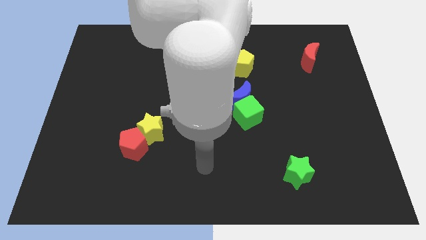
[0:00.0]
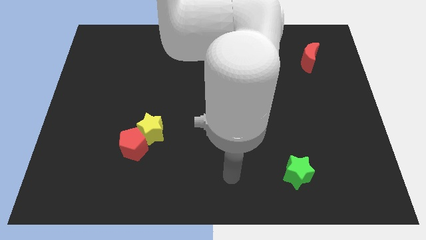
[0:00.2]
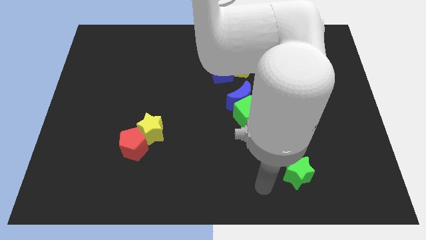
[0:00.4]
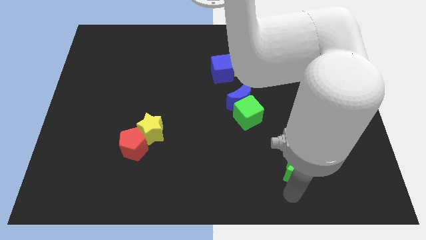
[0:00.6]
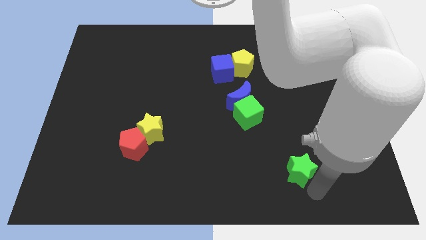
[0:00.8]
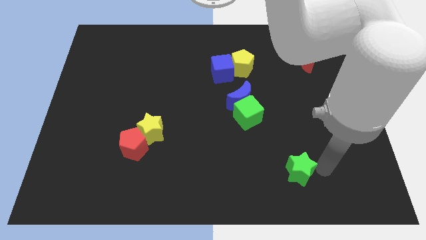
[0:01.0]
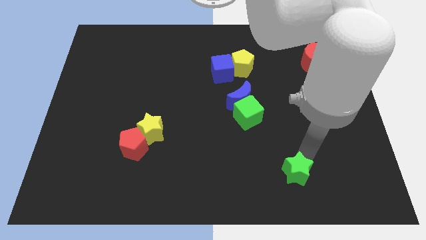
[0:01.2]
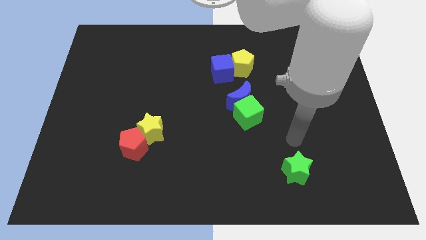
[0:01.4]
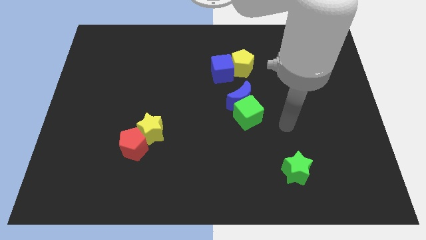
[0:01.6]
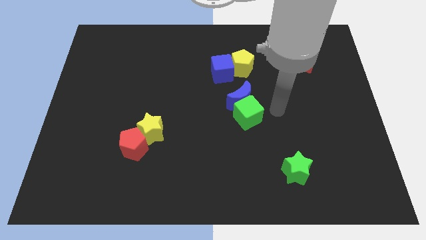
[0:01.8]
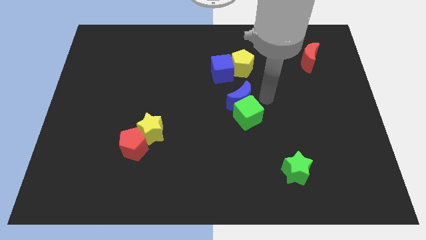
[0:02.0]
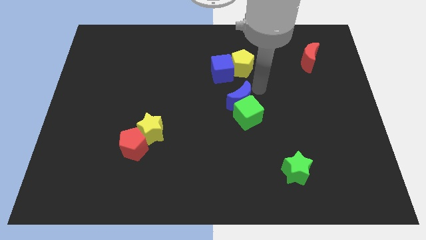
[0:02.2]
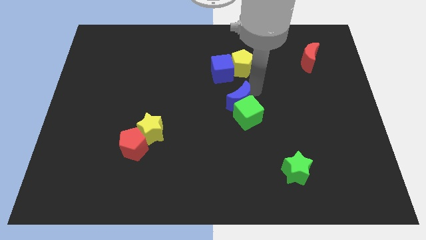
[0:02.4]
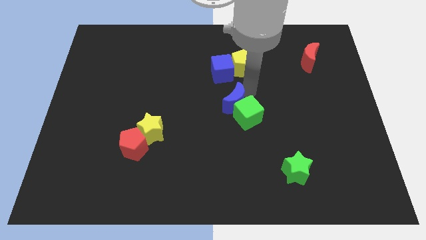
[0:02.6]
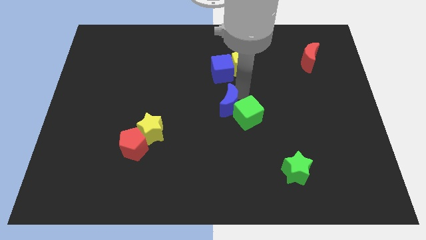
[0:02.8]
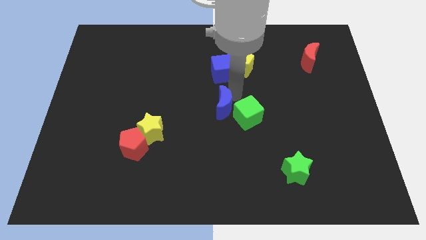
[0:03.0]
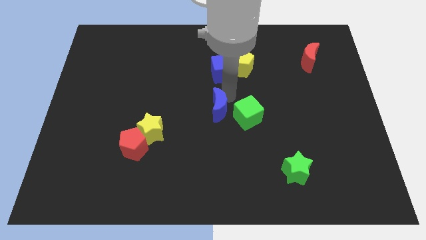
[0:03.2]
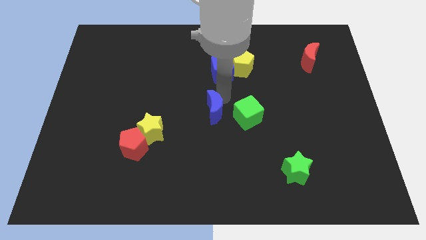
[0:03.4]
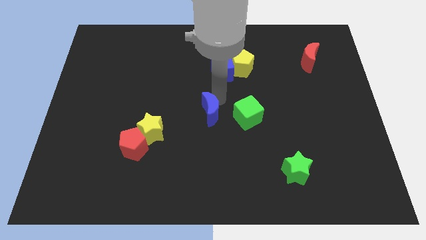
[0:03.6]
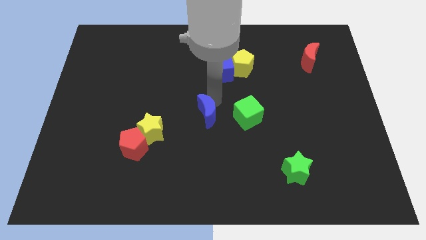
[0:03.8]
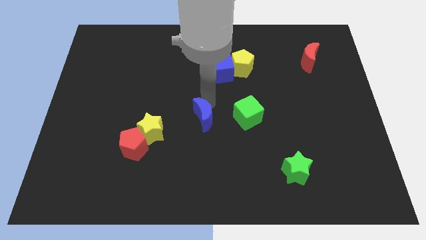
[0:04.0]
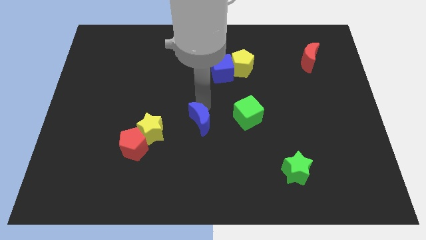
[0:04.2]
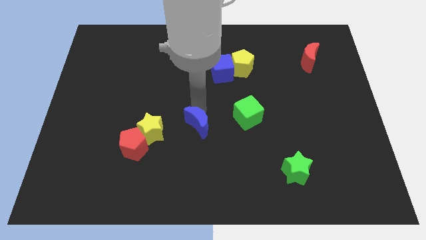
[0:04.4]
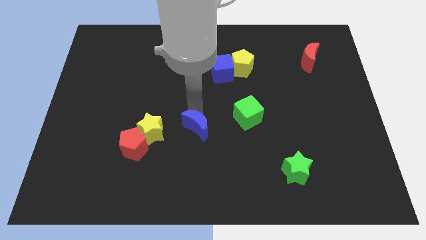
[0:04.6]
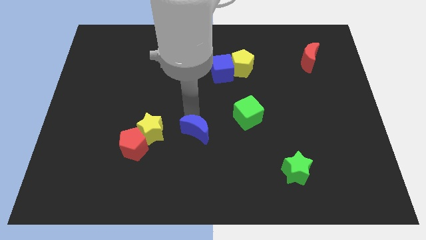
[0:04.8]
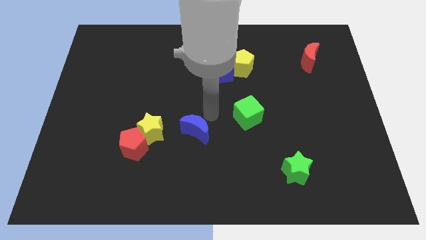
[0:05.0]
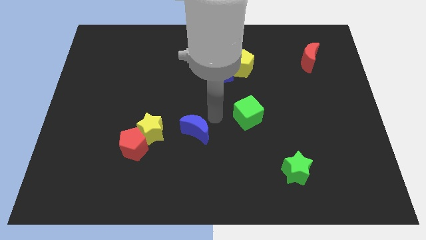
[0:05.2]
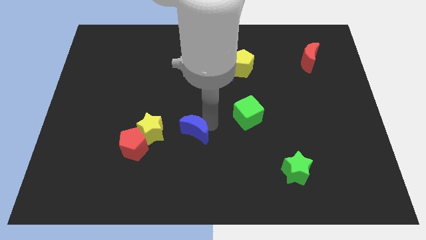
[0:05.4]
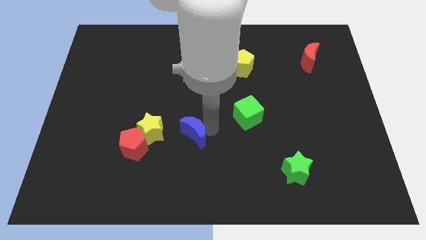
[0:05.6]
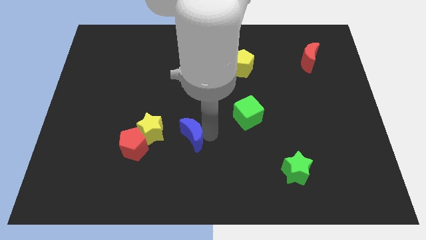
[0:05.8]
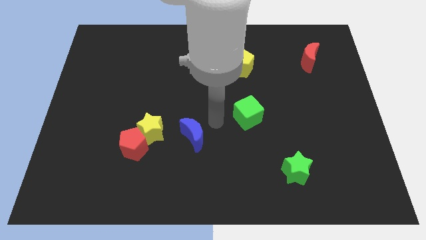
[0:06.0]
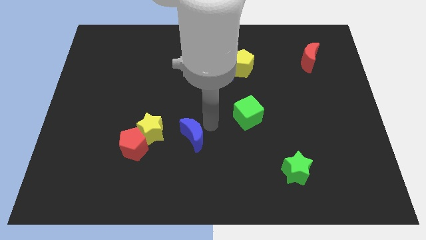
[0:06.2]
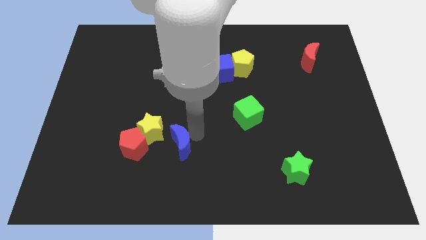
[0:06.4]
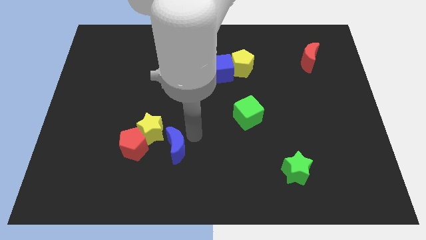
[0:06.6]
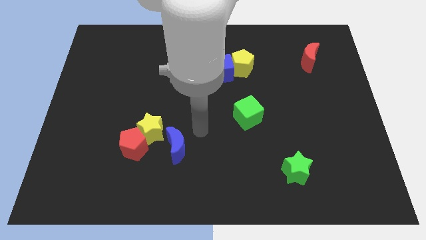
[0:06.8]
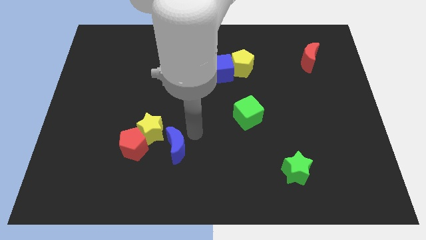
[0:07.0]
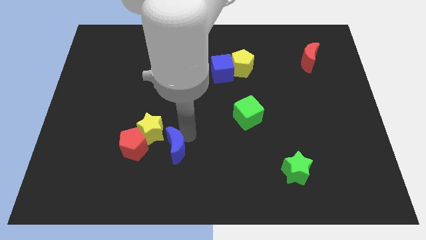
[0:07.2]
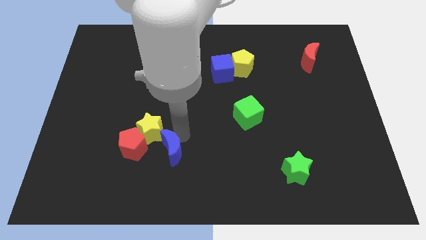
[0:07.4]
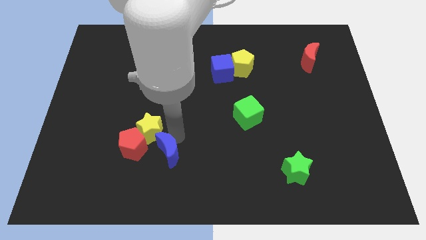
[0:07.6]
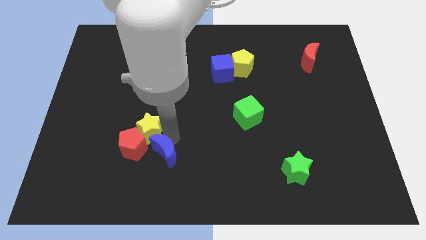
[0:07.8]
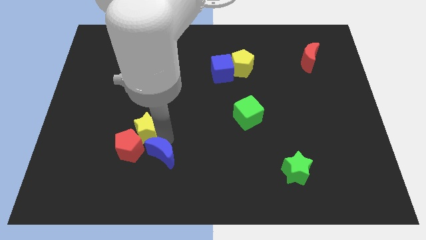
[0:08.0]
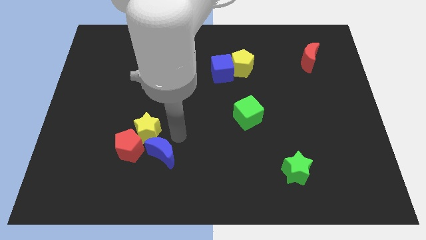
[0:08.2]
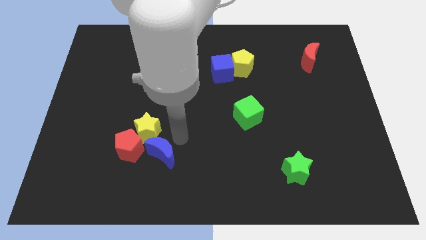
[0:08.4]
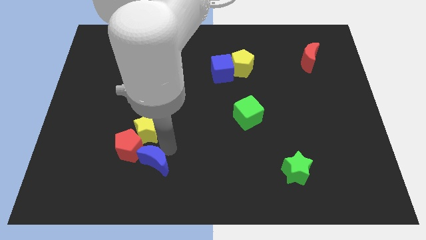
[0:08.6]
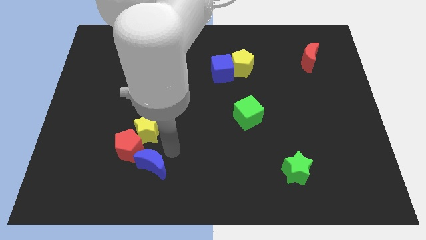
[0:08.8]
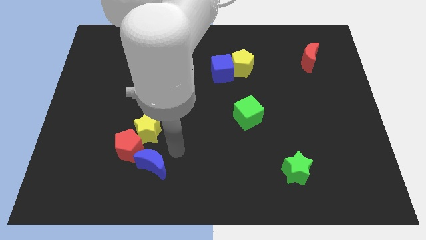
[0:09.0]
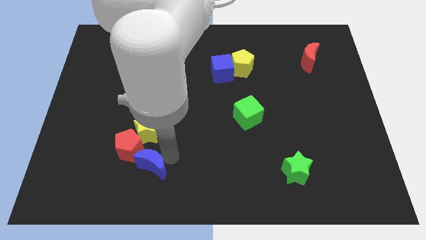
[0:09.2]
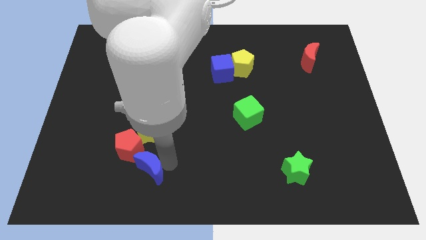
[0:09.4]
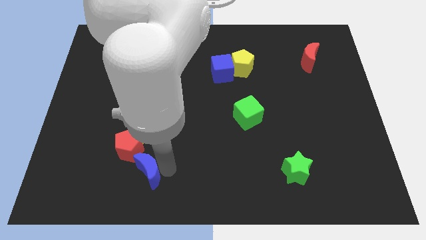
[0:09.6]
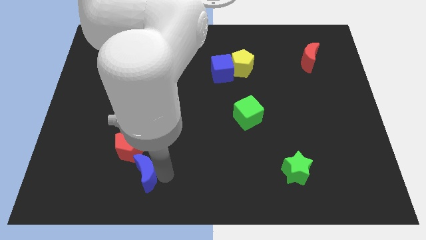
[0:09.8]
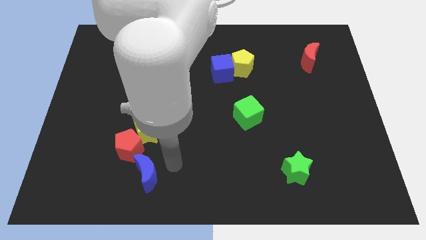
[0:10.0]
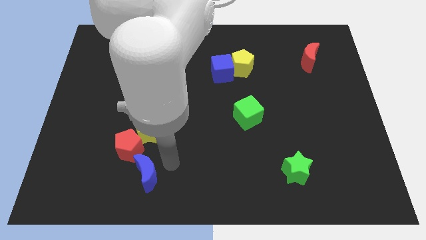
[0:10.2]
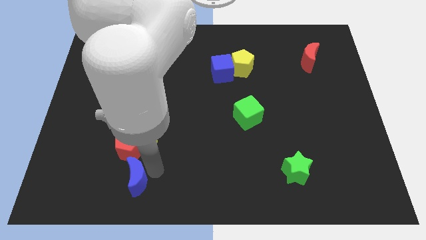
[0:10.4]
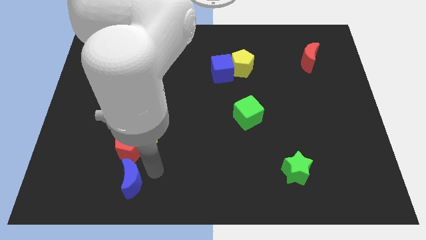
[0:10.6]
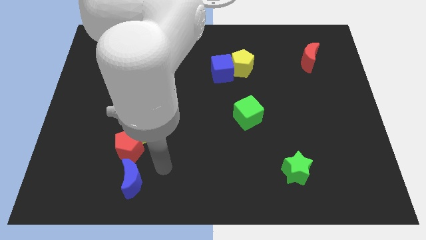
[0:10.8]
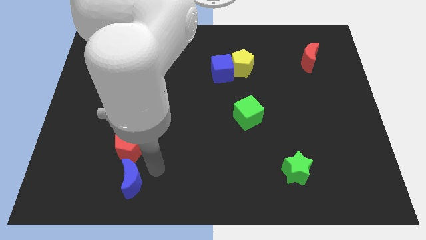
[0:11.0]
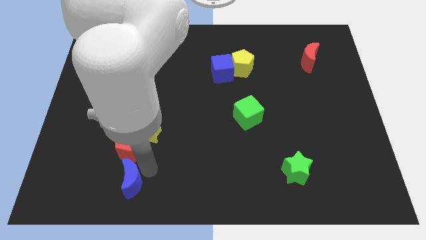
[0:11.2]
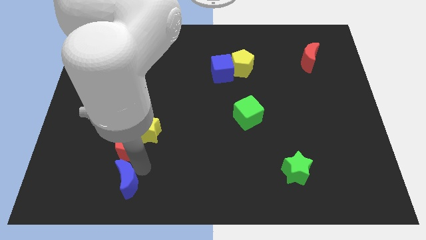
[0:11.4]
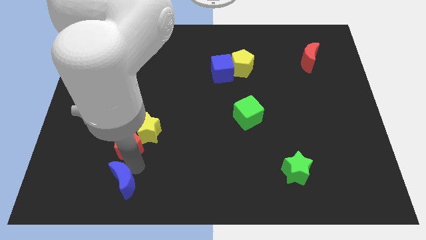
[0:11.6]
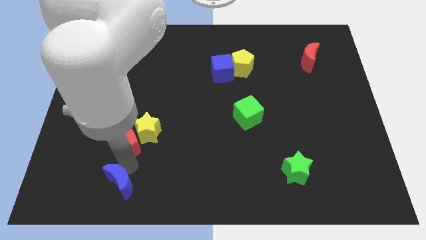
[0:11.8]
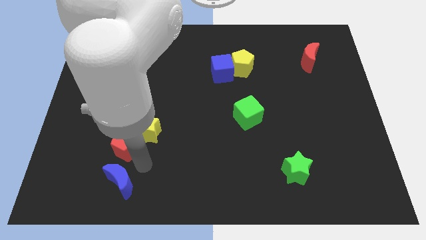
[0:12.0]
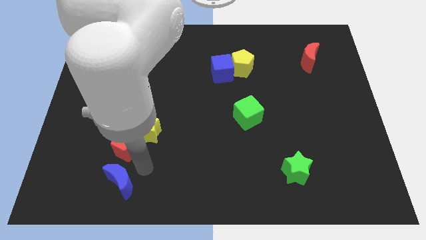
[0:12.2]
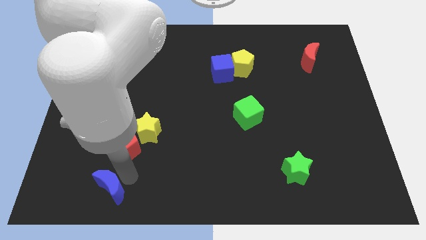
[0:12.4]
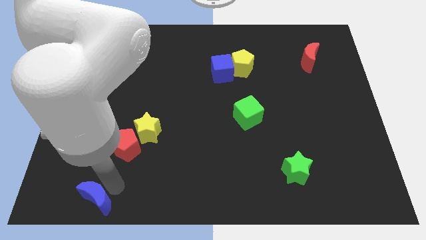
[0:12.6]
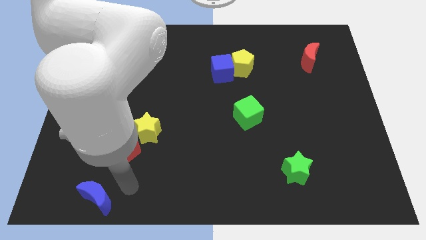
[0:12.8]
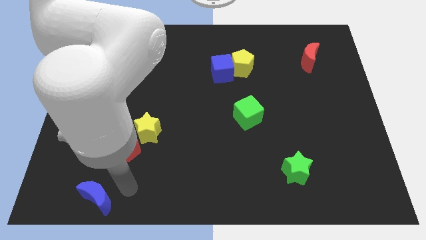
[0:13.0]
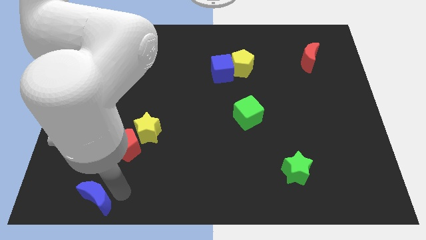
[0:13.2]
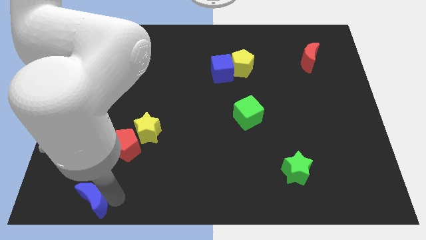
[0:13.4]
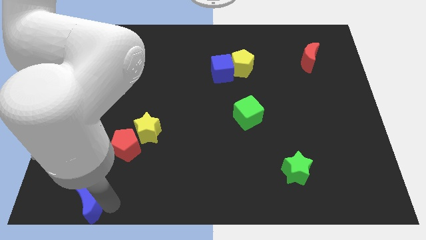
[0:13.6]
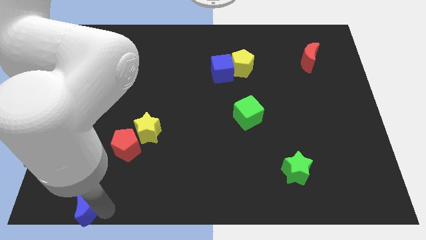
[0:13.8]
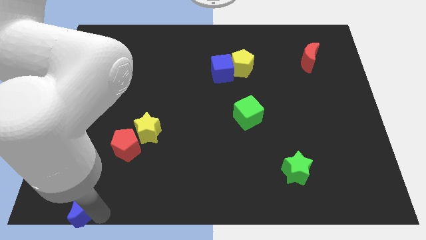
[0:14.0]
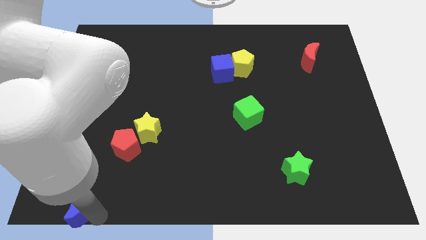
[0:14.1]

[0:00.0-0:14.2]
move the blue moon to the bottom left corner
